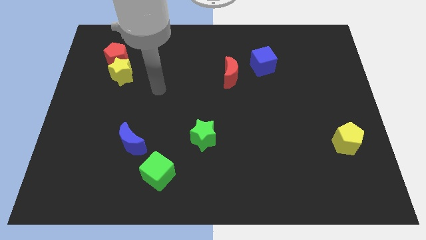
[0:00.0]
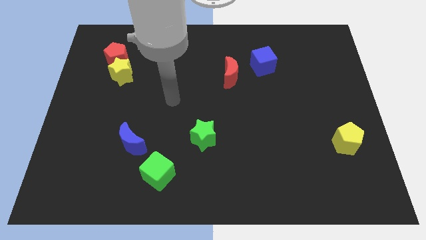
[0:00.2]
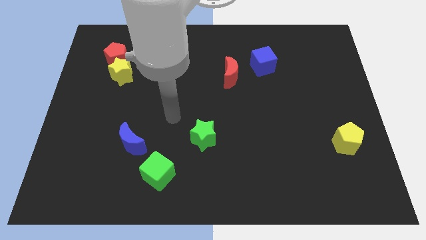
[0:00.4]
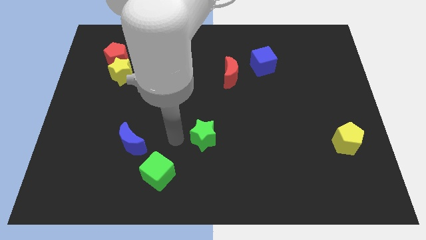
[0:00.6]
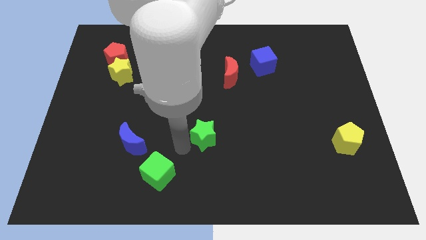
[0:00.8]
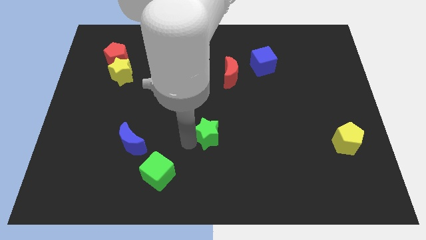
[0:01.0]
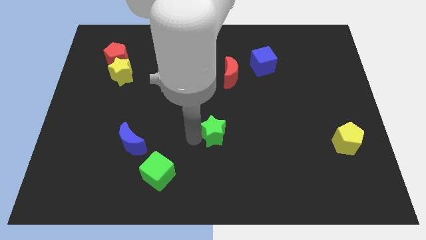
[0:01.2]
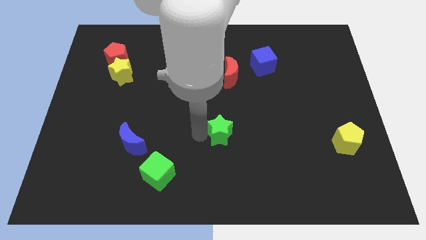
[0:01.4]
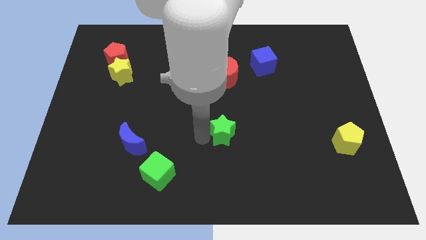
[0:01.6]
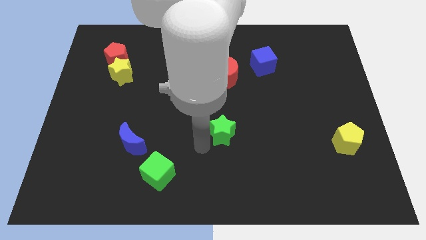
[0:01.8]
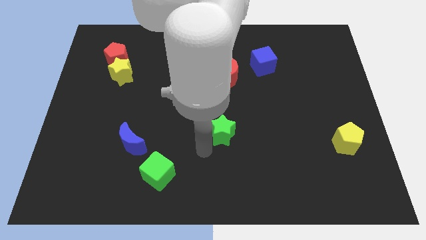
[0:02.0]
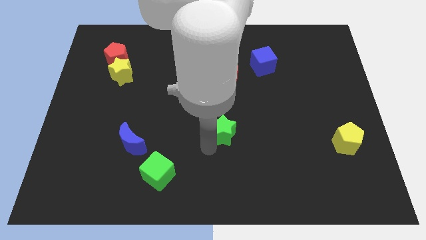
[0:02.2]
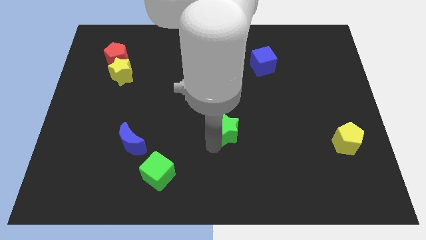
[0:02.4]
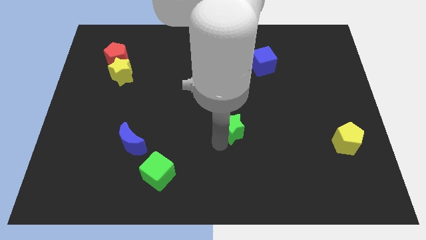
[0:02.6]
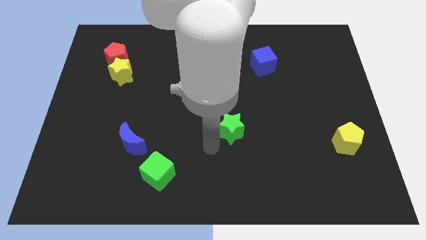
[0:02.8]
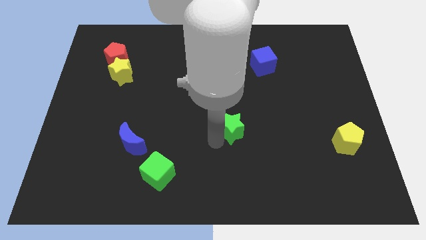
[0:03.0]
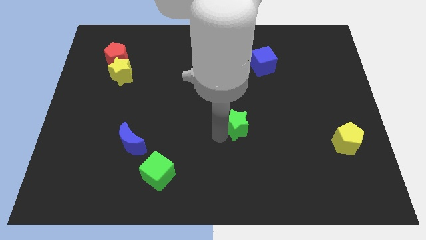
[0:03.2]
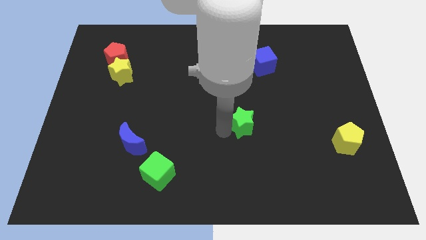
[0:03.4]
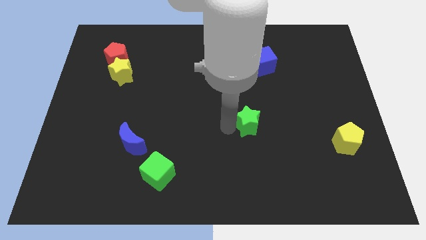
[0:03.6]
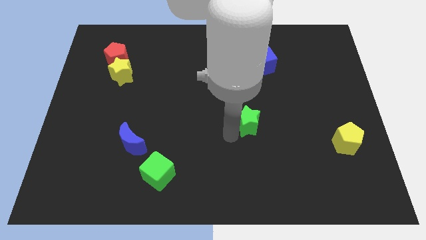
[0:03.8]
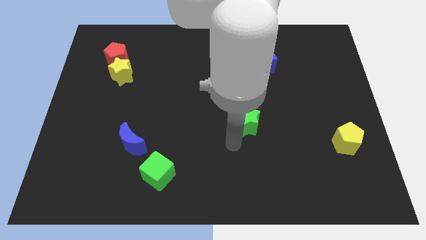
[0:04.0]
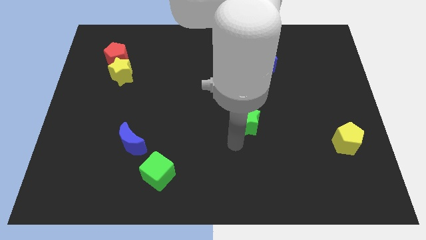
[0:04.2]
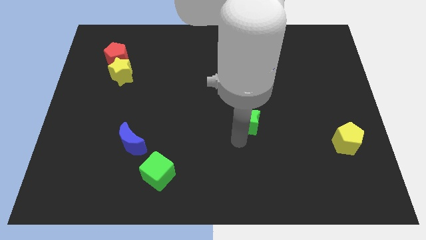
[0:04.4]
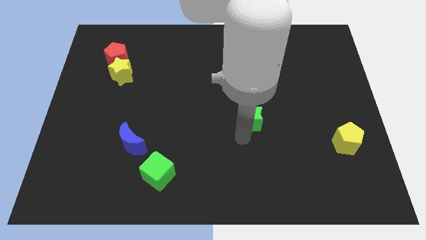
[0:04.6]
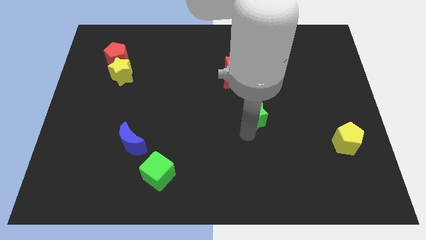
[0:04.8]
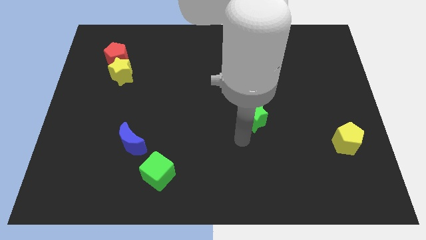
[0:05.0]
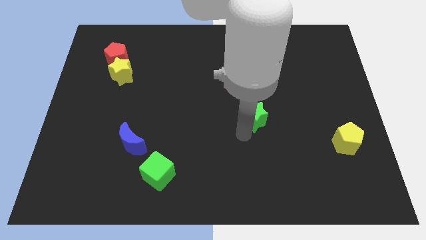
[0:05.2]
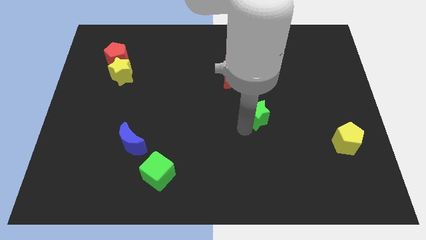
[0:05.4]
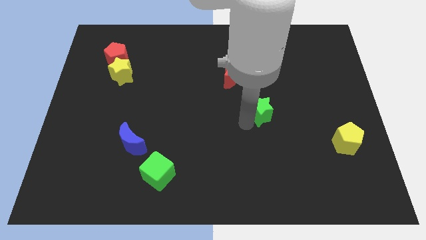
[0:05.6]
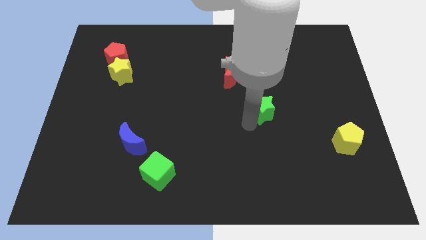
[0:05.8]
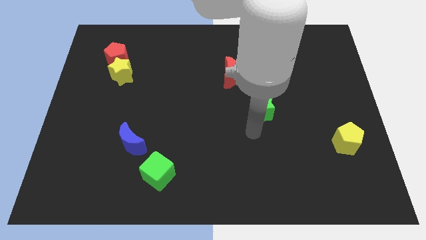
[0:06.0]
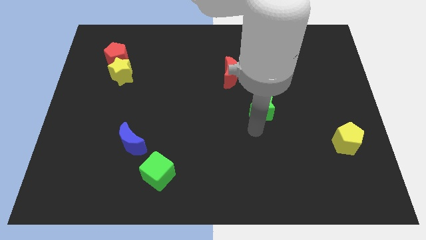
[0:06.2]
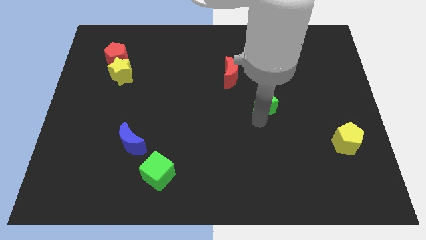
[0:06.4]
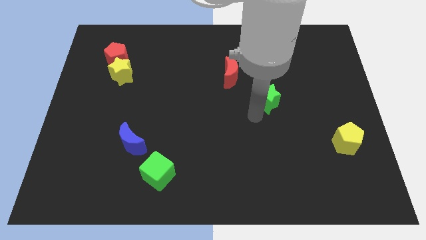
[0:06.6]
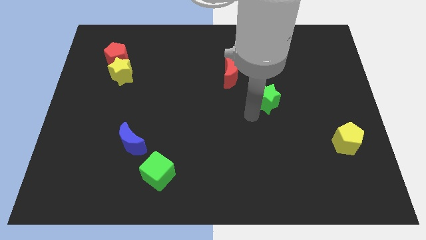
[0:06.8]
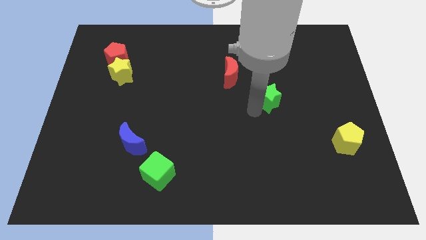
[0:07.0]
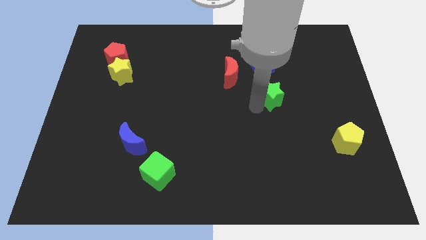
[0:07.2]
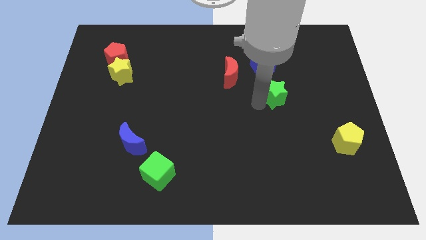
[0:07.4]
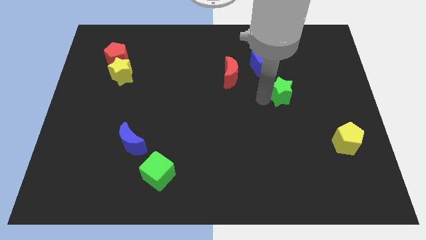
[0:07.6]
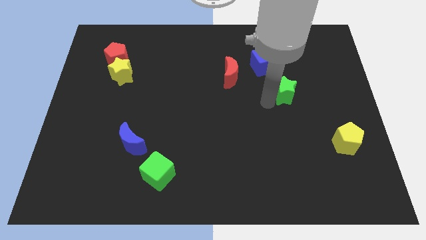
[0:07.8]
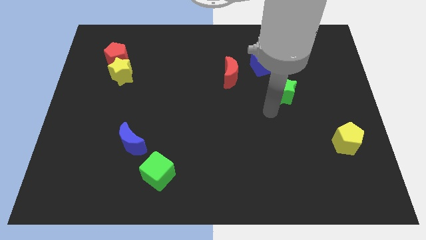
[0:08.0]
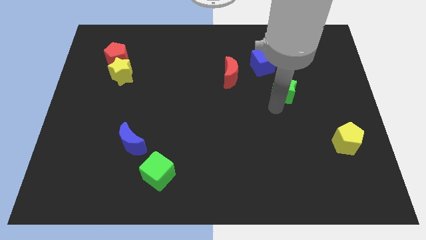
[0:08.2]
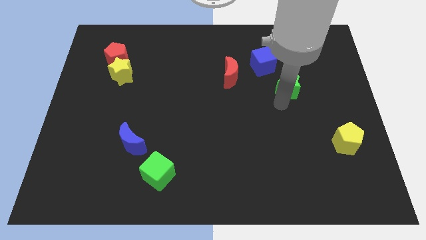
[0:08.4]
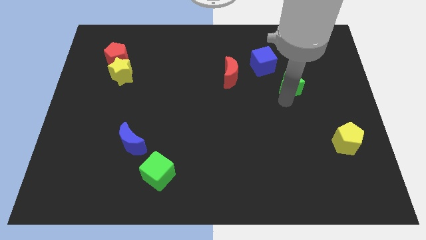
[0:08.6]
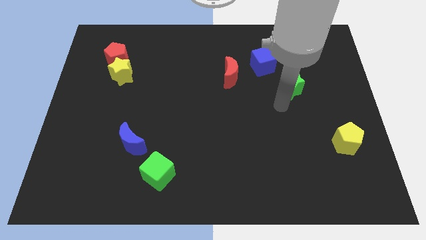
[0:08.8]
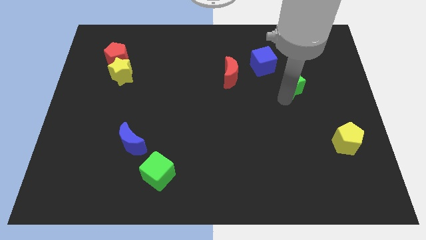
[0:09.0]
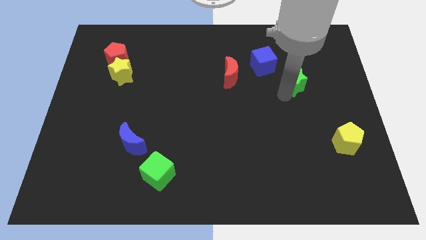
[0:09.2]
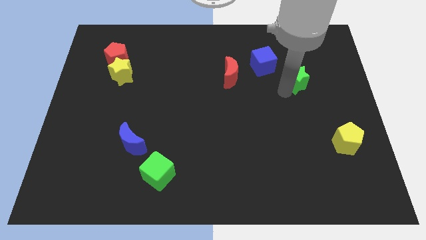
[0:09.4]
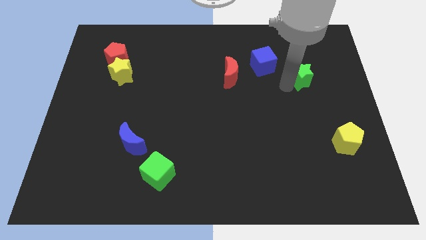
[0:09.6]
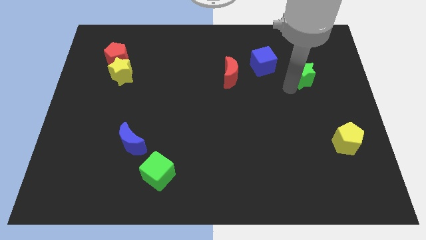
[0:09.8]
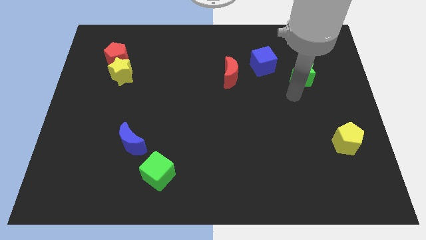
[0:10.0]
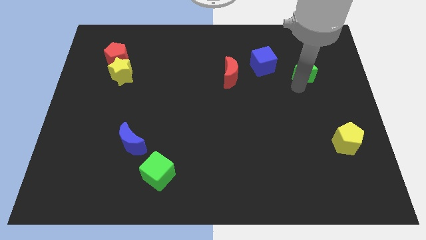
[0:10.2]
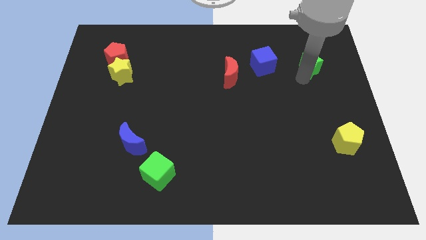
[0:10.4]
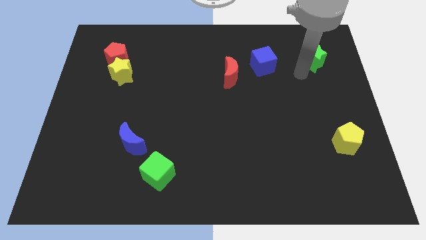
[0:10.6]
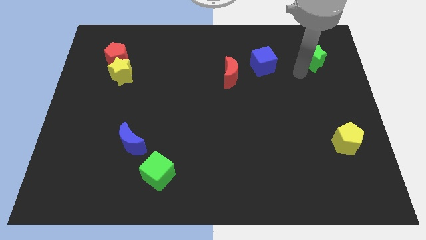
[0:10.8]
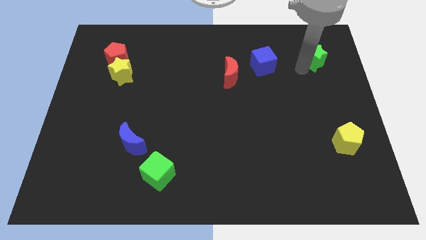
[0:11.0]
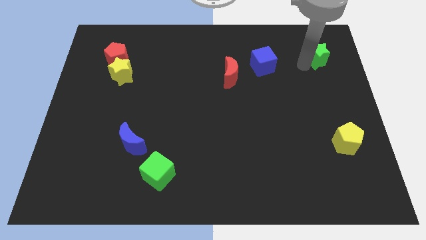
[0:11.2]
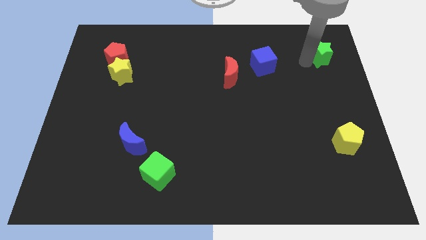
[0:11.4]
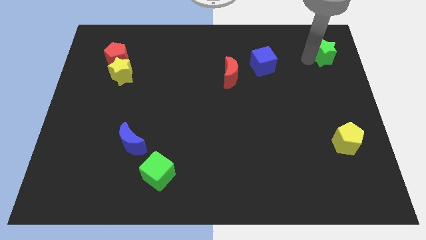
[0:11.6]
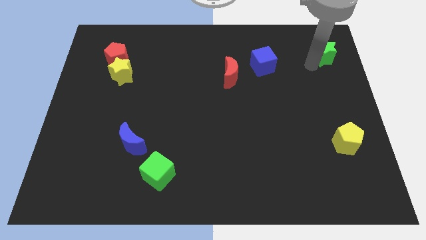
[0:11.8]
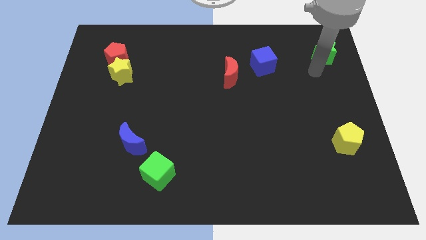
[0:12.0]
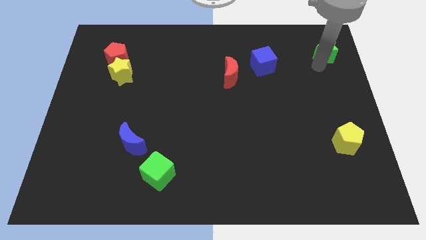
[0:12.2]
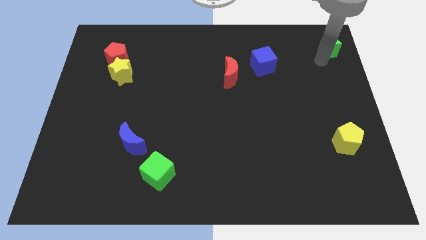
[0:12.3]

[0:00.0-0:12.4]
push the green star to the top right
